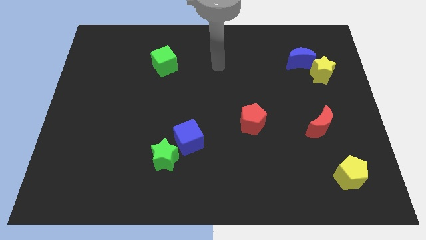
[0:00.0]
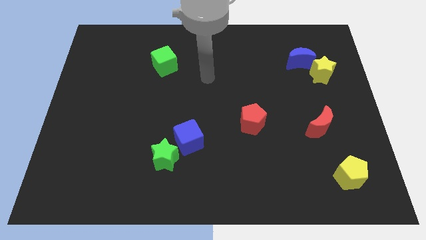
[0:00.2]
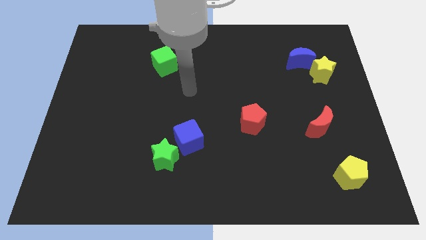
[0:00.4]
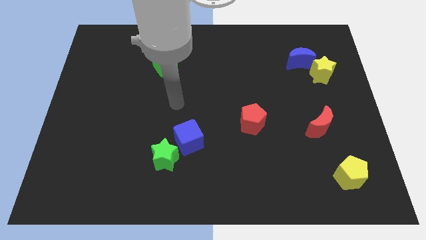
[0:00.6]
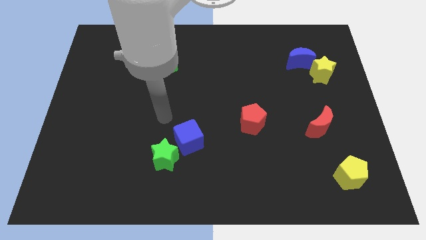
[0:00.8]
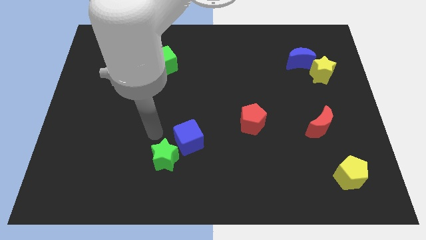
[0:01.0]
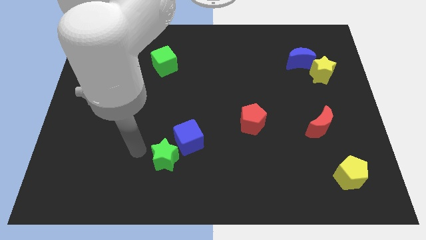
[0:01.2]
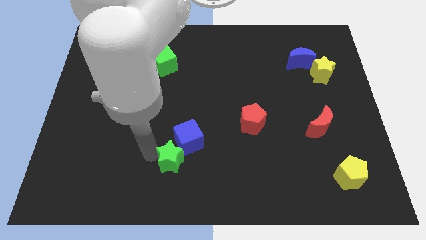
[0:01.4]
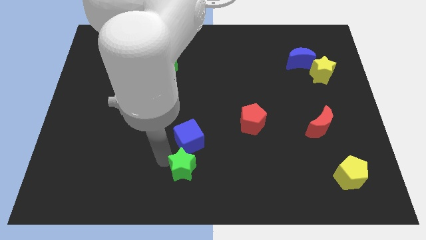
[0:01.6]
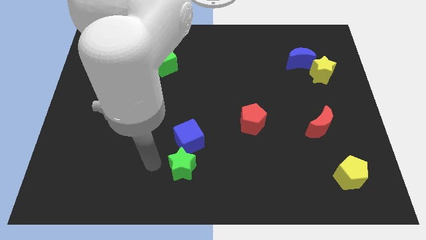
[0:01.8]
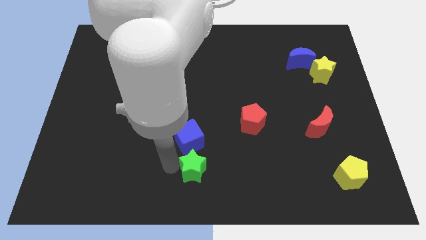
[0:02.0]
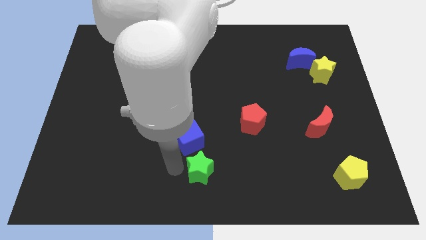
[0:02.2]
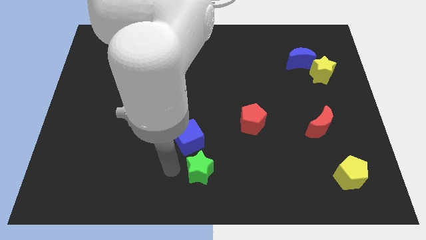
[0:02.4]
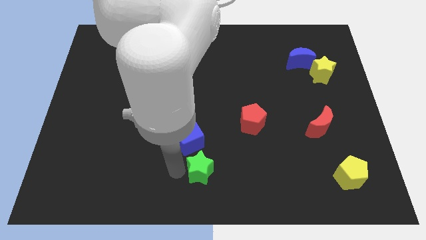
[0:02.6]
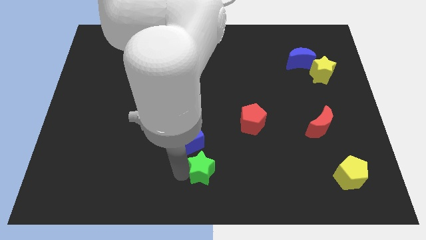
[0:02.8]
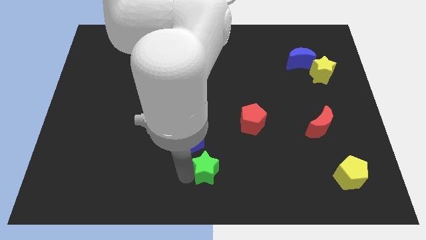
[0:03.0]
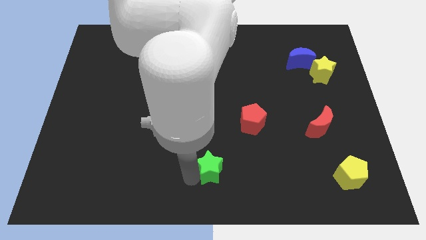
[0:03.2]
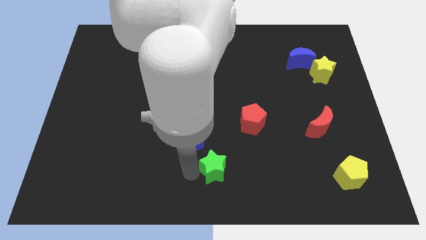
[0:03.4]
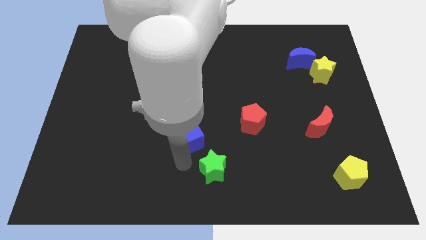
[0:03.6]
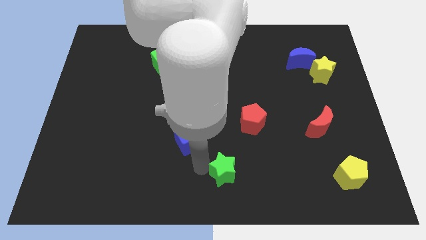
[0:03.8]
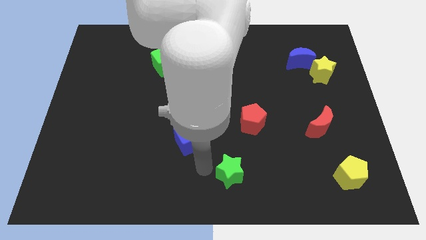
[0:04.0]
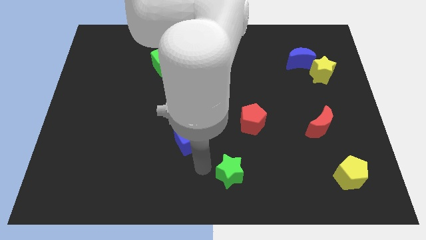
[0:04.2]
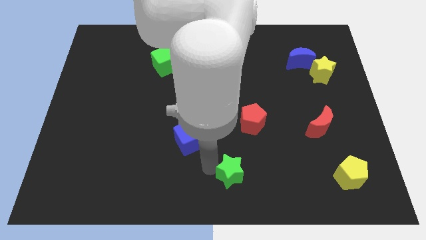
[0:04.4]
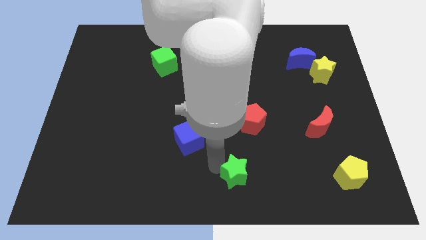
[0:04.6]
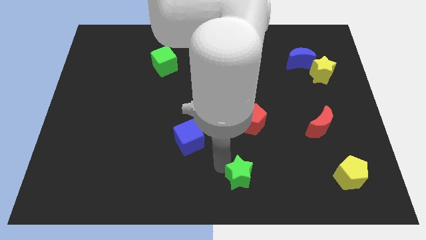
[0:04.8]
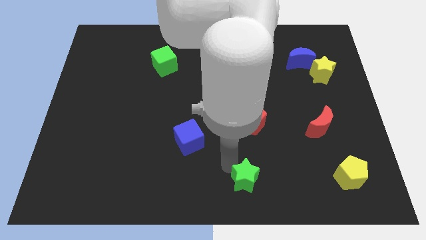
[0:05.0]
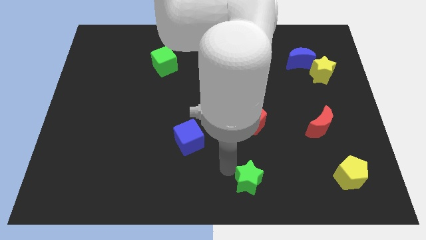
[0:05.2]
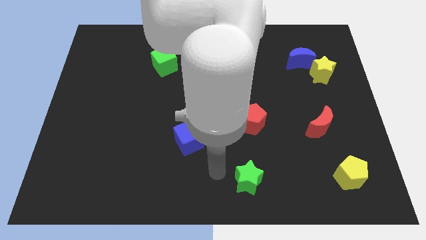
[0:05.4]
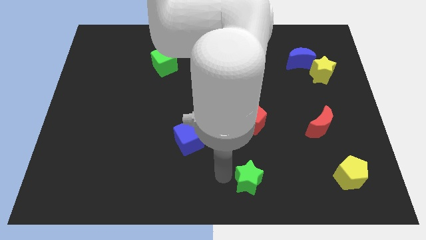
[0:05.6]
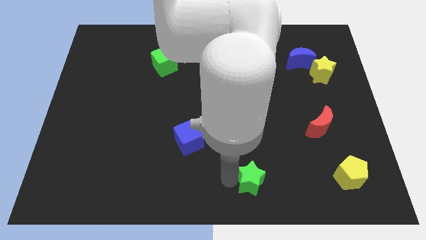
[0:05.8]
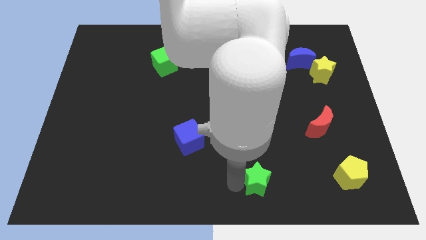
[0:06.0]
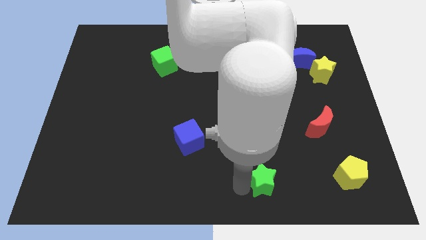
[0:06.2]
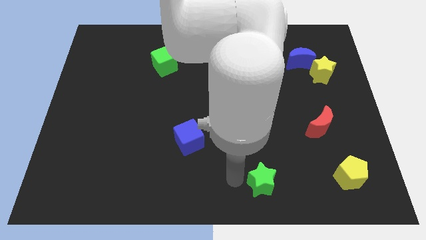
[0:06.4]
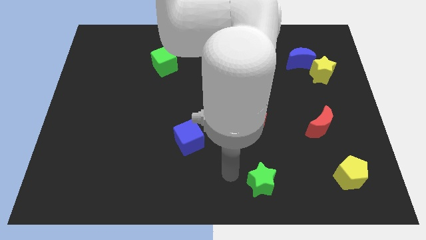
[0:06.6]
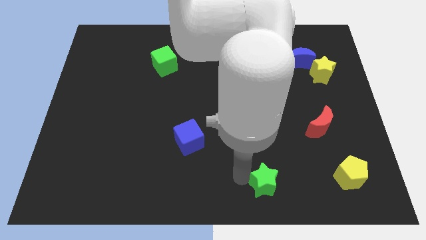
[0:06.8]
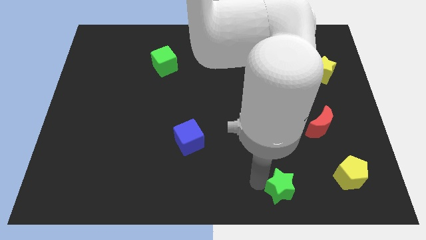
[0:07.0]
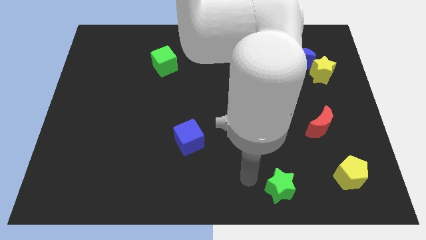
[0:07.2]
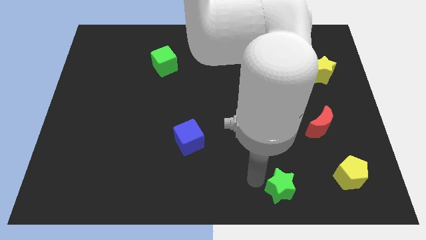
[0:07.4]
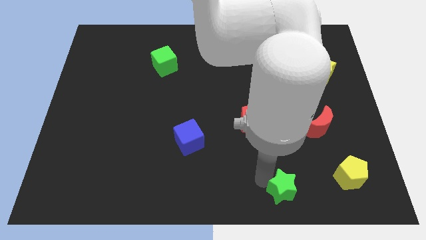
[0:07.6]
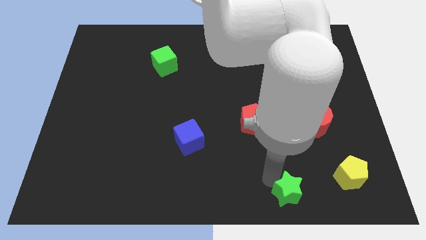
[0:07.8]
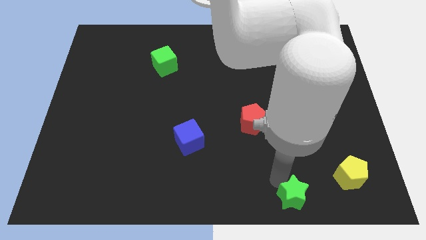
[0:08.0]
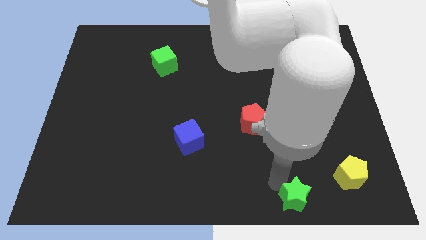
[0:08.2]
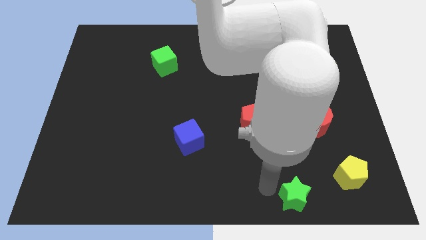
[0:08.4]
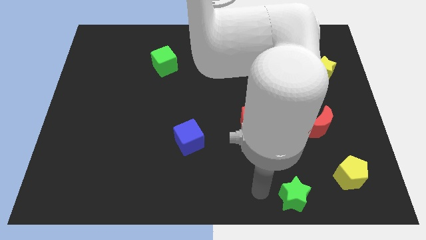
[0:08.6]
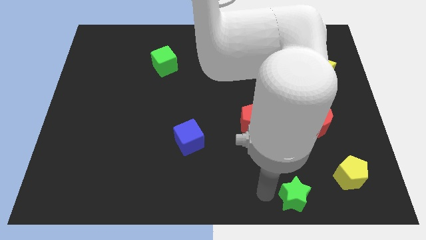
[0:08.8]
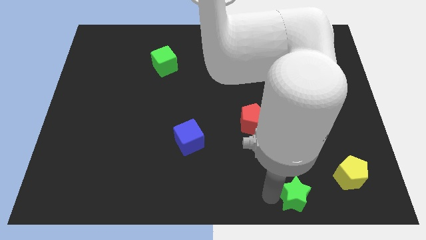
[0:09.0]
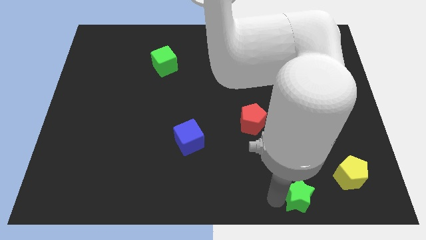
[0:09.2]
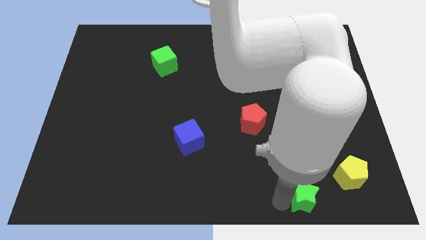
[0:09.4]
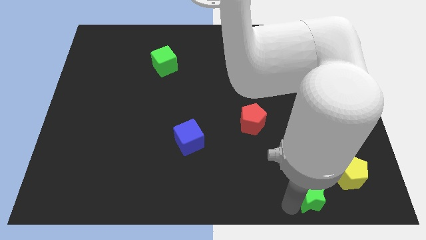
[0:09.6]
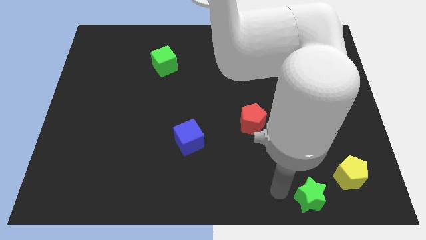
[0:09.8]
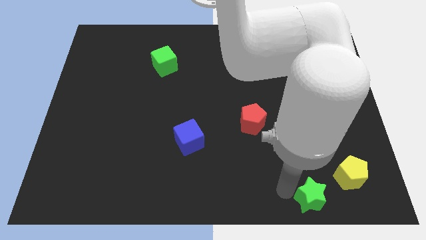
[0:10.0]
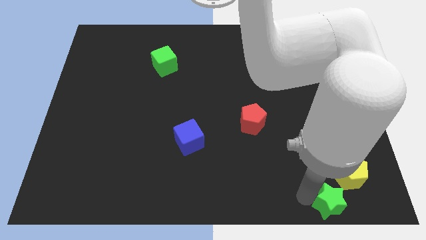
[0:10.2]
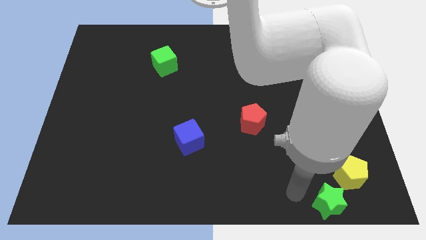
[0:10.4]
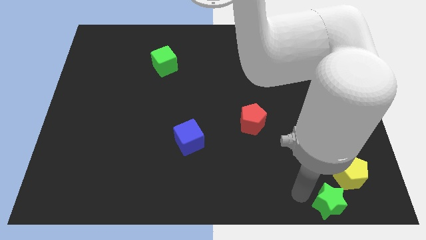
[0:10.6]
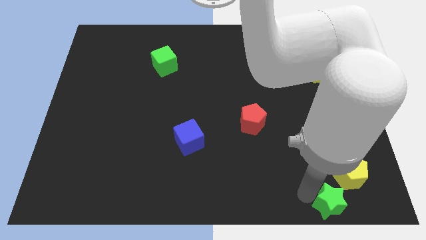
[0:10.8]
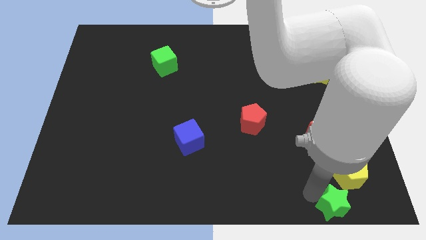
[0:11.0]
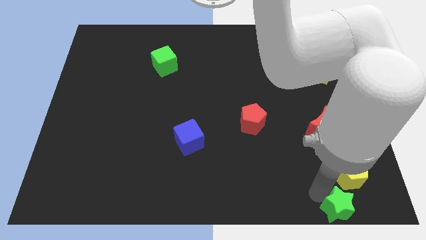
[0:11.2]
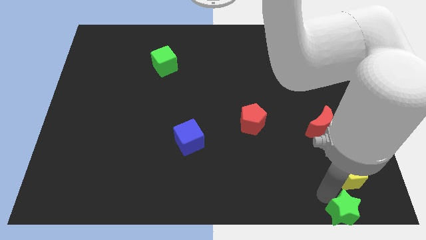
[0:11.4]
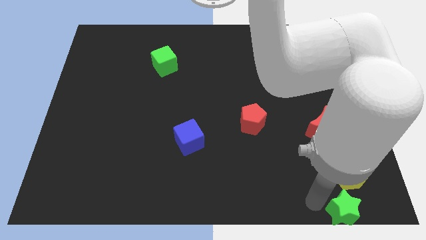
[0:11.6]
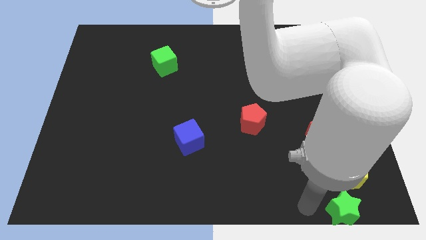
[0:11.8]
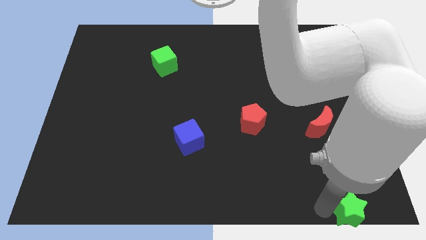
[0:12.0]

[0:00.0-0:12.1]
slide the green star to the bottom right of the board
